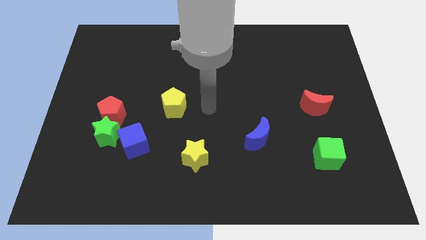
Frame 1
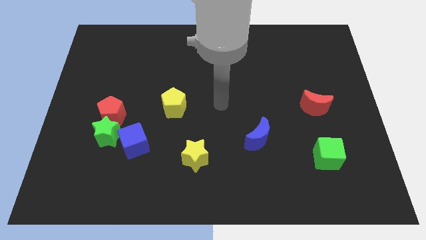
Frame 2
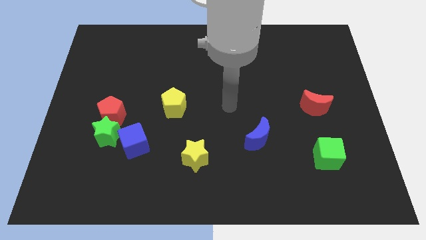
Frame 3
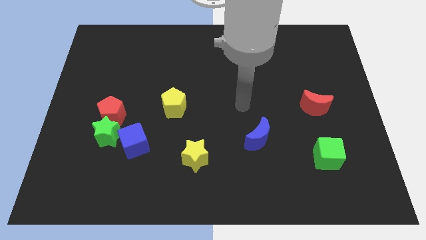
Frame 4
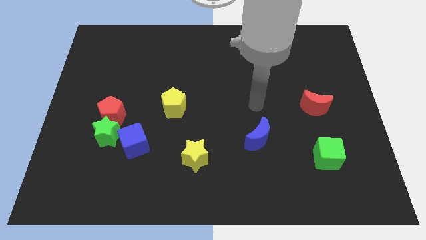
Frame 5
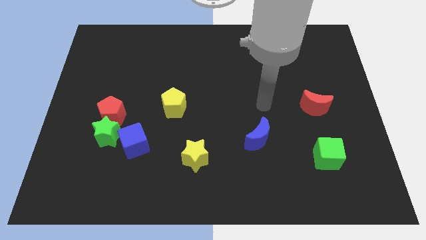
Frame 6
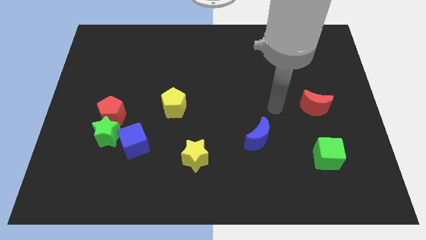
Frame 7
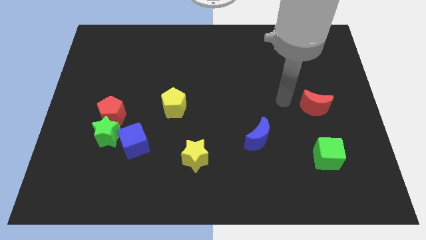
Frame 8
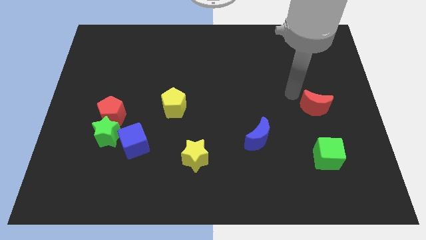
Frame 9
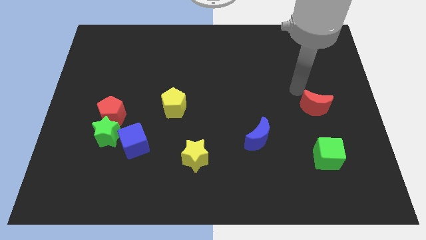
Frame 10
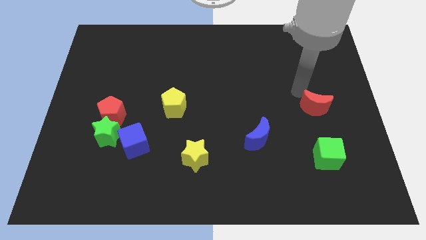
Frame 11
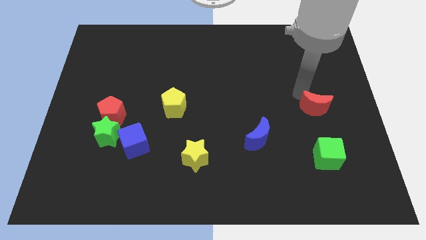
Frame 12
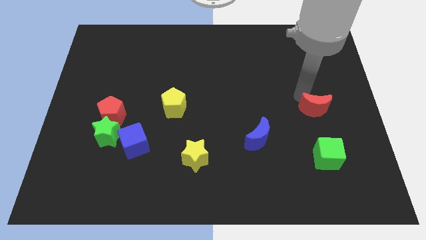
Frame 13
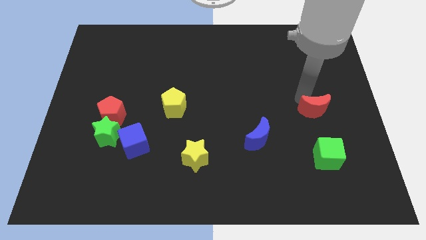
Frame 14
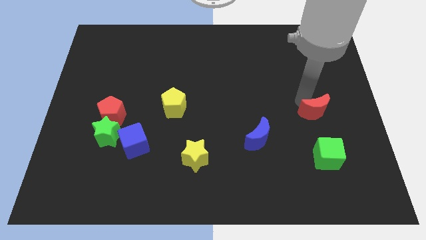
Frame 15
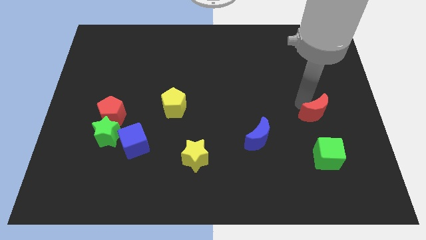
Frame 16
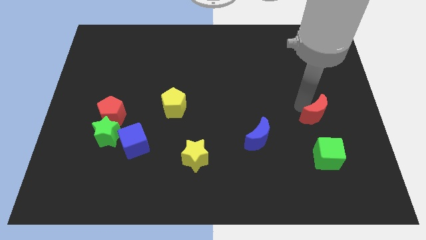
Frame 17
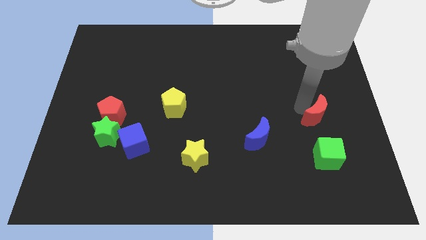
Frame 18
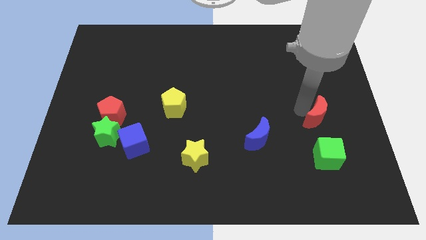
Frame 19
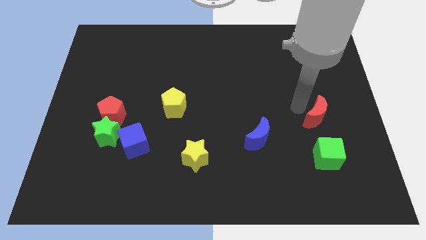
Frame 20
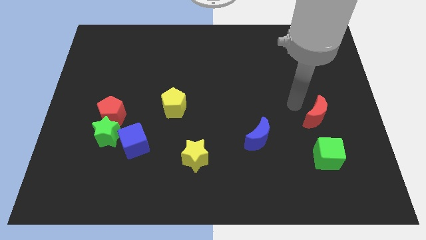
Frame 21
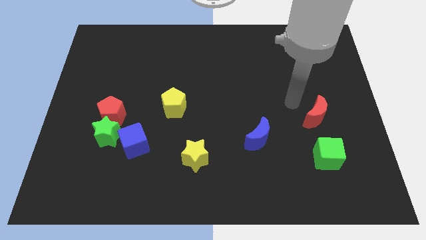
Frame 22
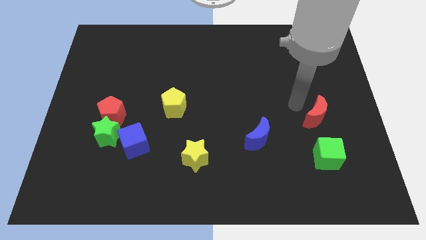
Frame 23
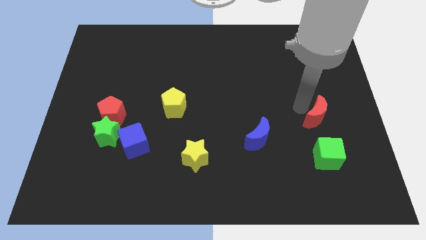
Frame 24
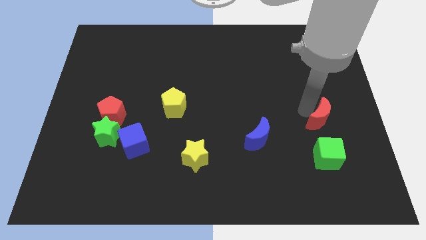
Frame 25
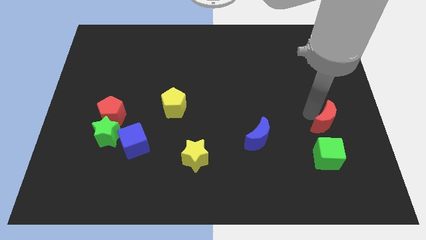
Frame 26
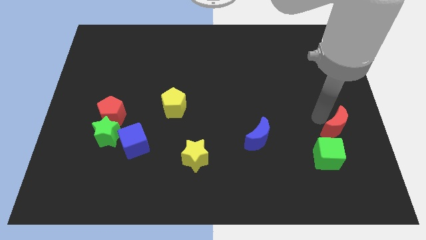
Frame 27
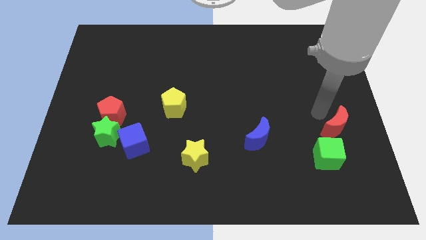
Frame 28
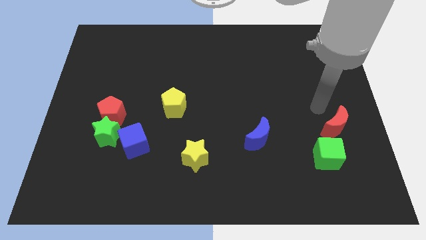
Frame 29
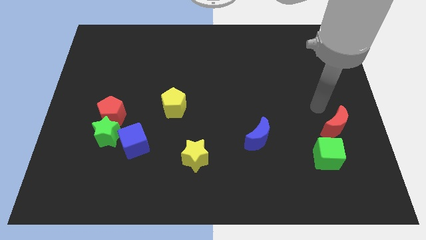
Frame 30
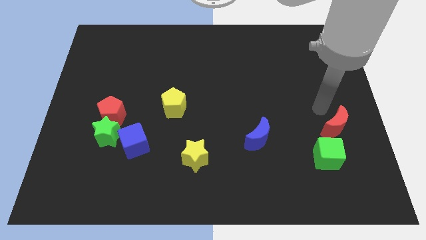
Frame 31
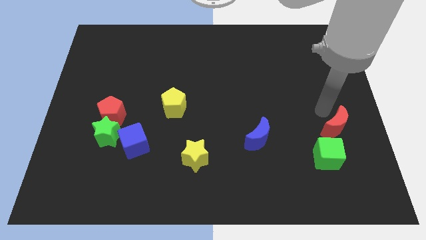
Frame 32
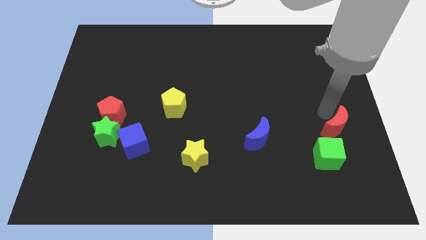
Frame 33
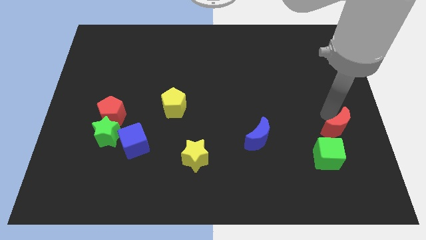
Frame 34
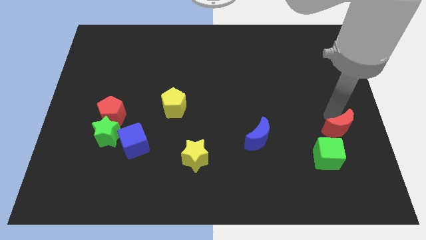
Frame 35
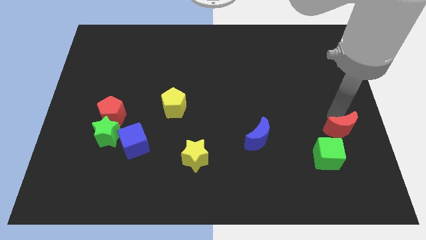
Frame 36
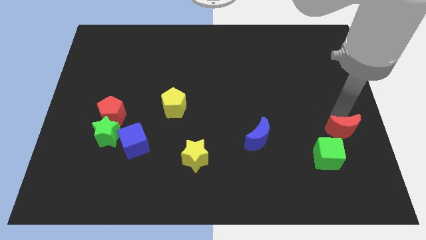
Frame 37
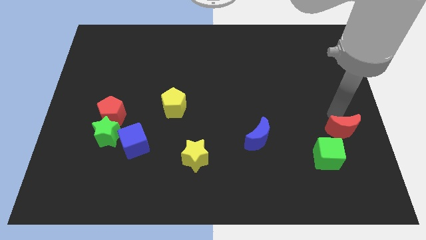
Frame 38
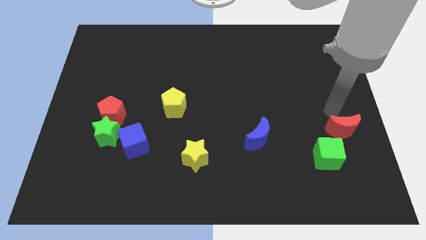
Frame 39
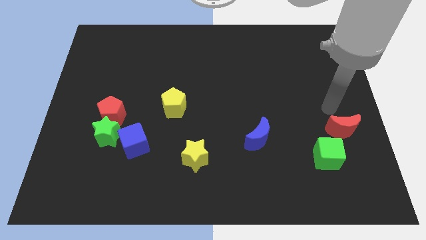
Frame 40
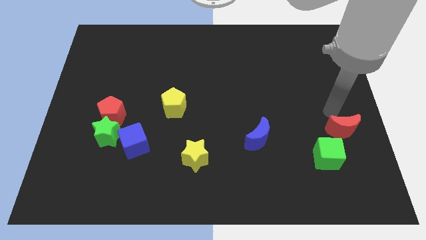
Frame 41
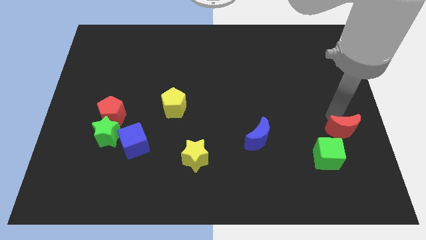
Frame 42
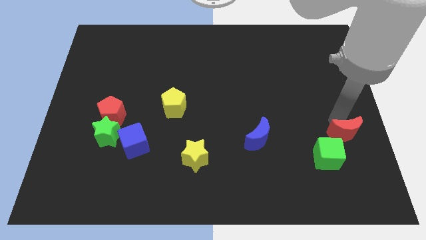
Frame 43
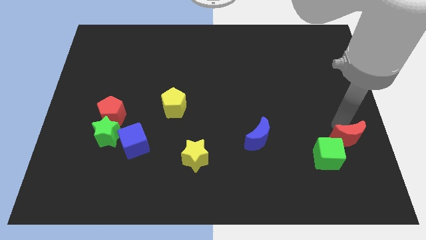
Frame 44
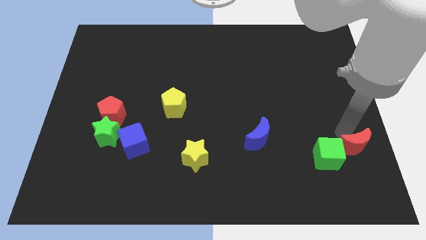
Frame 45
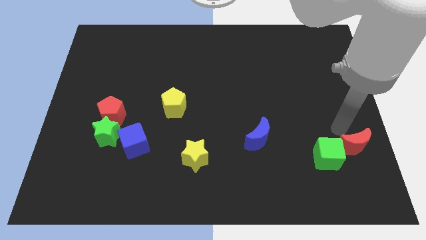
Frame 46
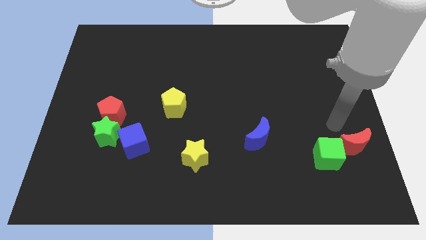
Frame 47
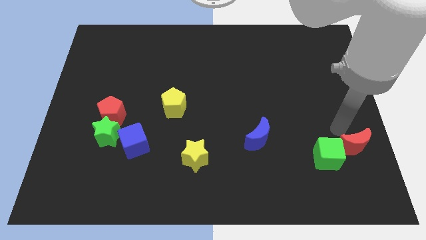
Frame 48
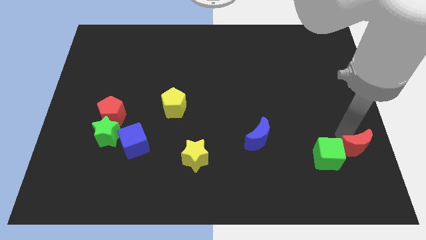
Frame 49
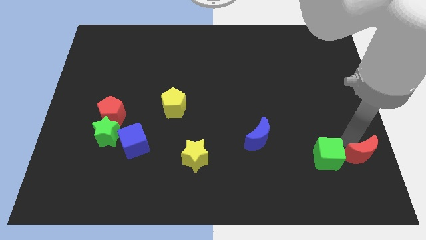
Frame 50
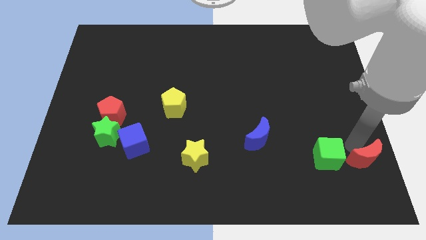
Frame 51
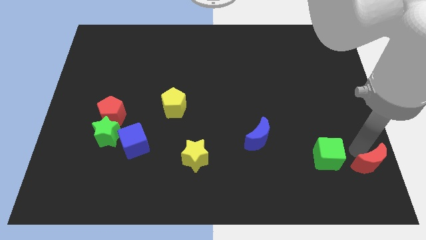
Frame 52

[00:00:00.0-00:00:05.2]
slide the red moon to the bottom right of the board

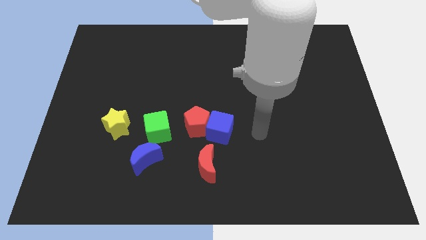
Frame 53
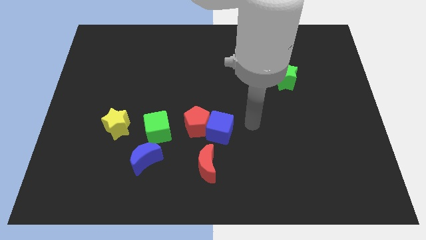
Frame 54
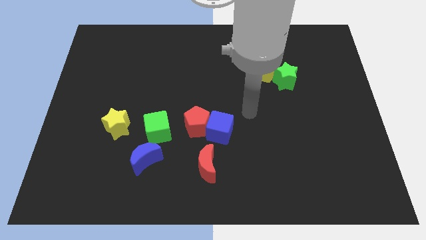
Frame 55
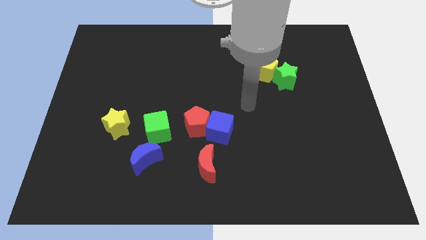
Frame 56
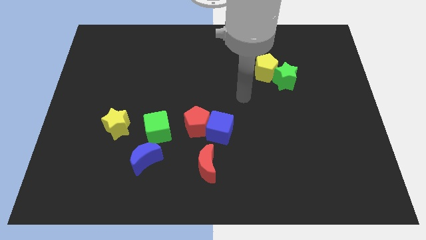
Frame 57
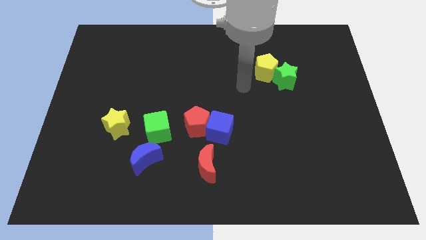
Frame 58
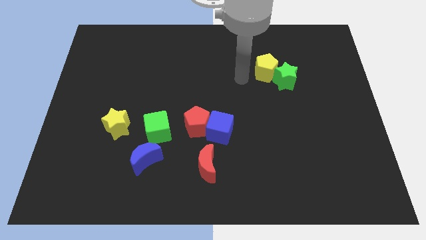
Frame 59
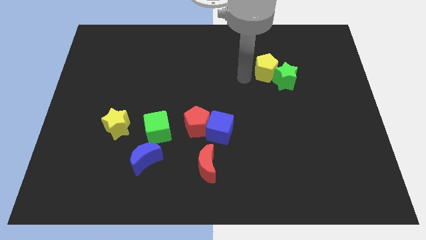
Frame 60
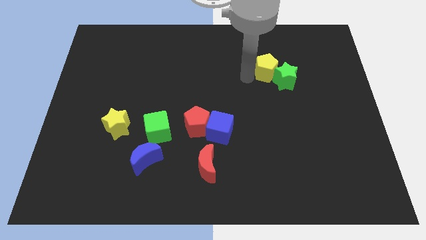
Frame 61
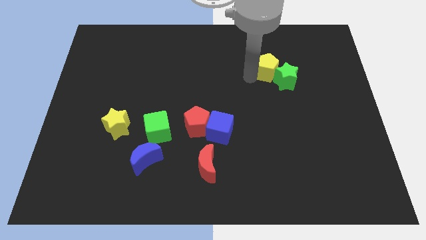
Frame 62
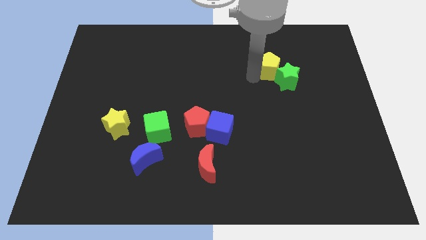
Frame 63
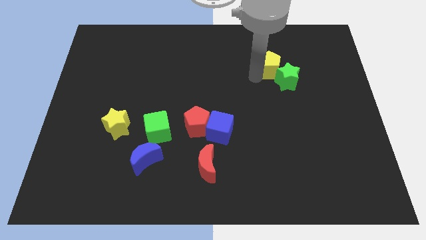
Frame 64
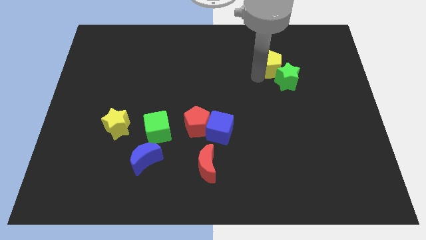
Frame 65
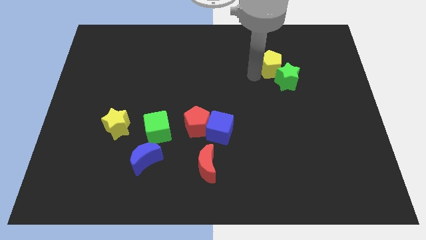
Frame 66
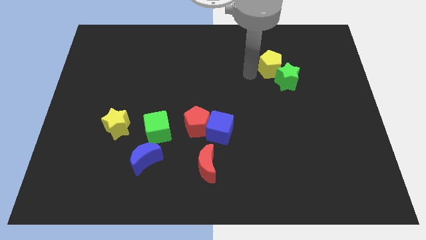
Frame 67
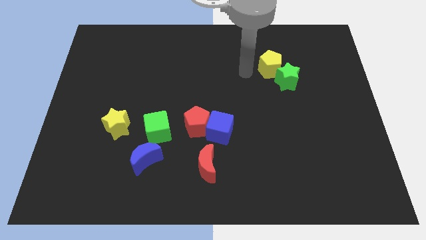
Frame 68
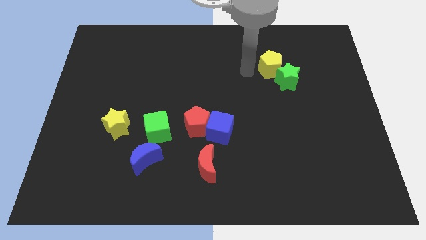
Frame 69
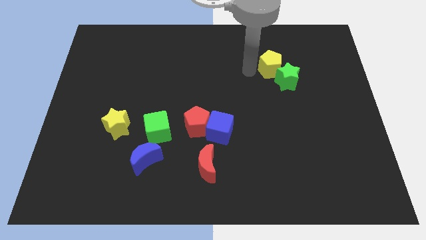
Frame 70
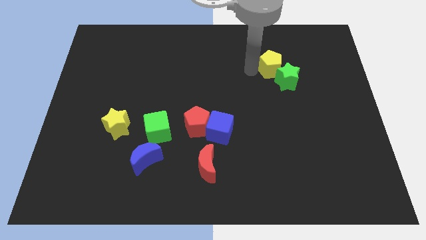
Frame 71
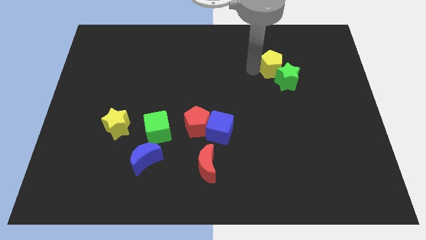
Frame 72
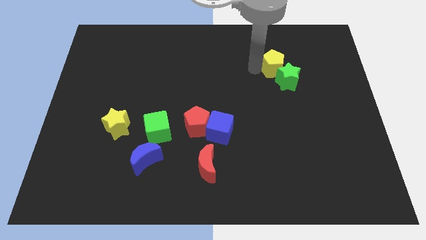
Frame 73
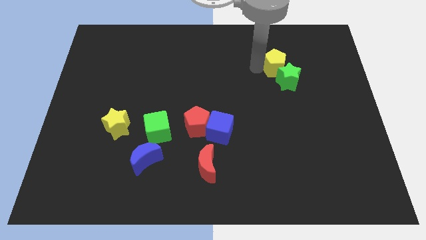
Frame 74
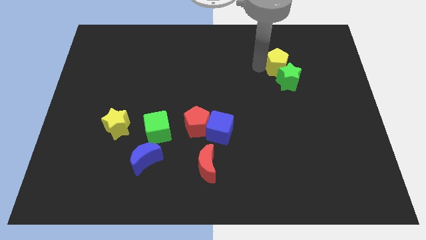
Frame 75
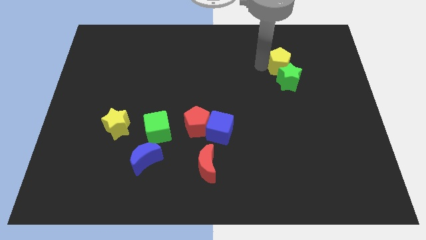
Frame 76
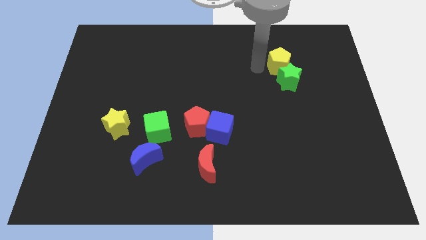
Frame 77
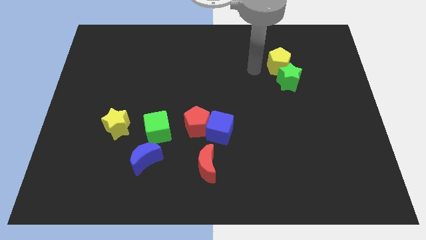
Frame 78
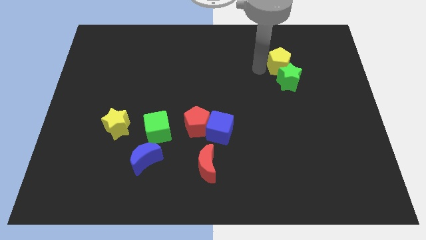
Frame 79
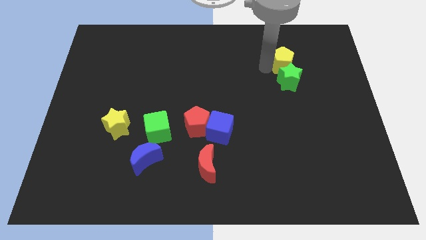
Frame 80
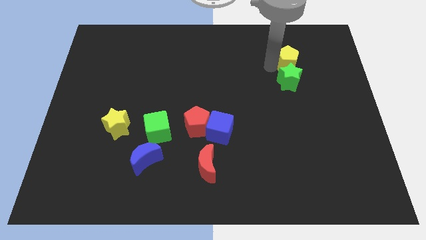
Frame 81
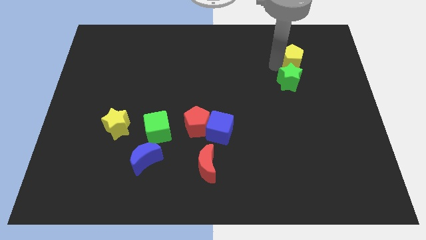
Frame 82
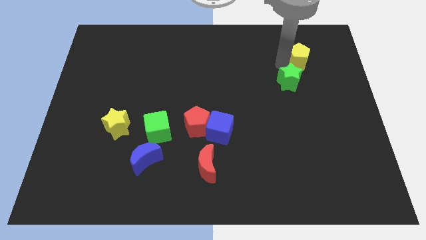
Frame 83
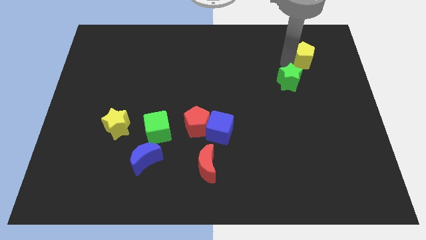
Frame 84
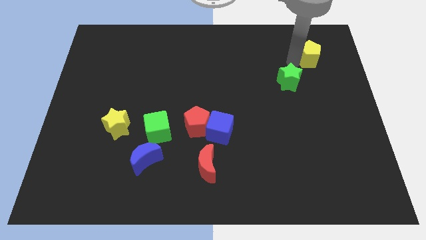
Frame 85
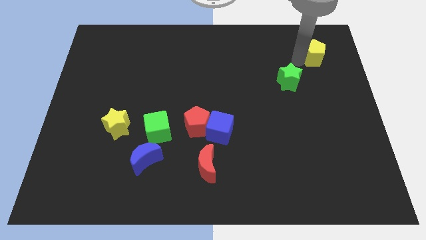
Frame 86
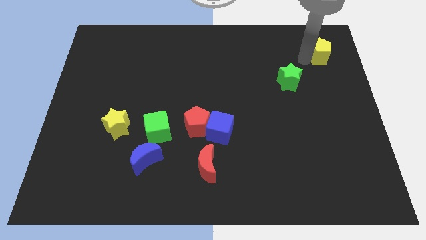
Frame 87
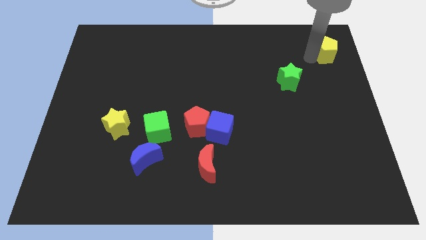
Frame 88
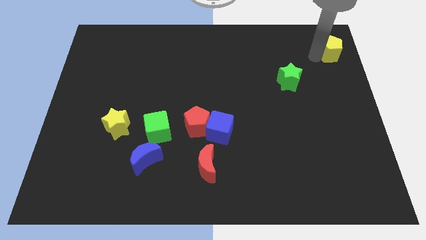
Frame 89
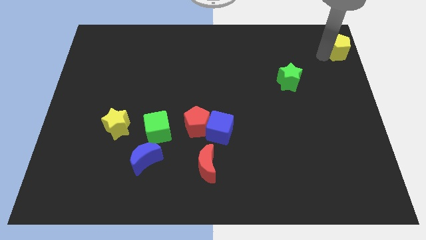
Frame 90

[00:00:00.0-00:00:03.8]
move the yellow pentagon to the top right
